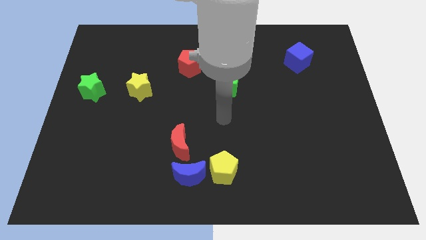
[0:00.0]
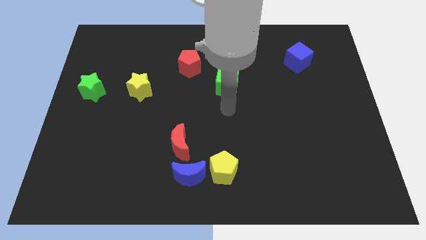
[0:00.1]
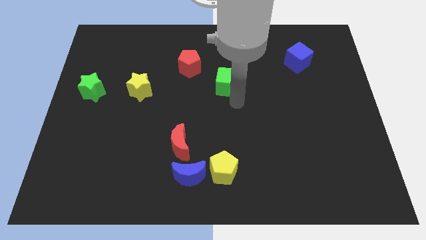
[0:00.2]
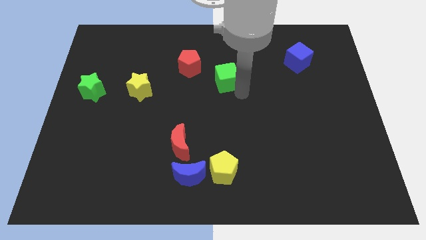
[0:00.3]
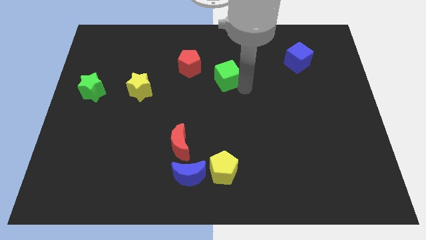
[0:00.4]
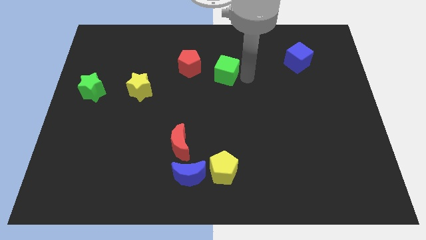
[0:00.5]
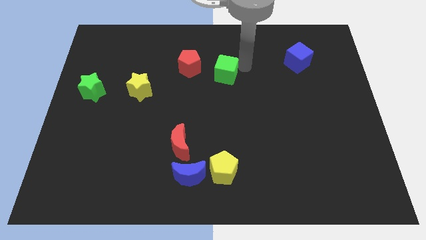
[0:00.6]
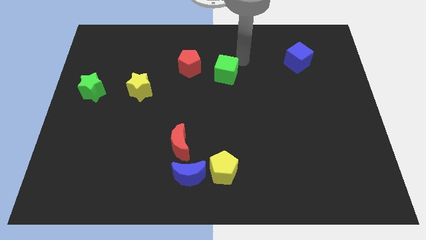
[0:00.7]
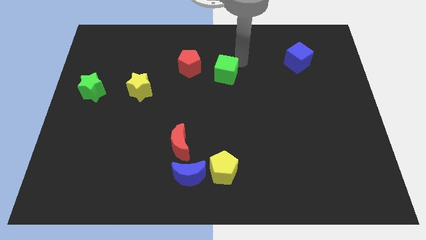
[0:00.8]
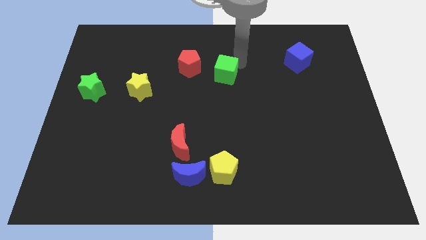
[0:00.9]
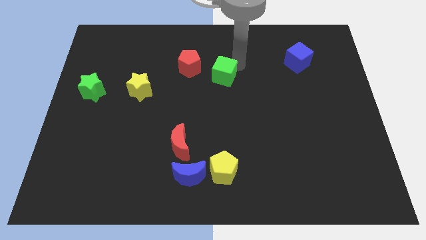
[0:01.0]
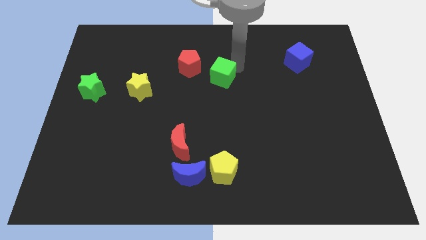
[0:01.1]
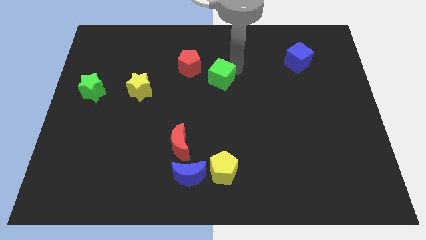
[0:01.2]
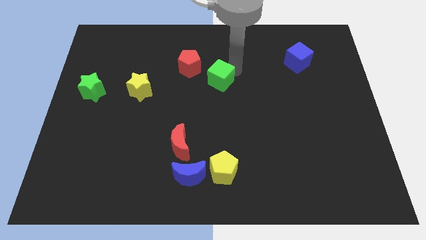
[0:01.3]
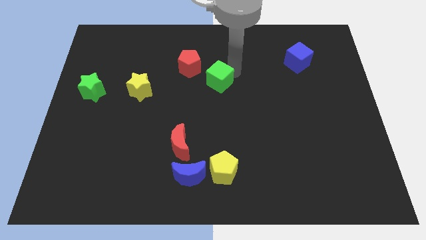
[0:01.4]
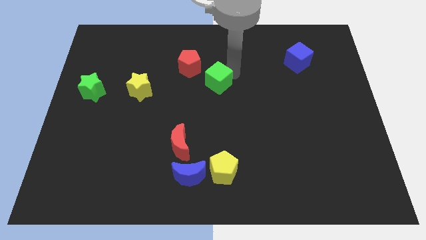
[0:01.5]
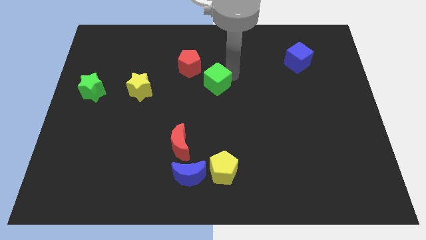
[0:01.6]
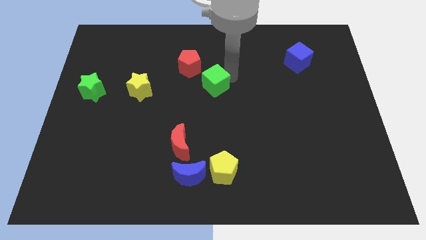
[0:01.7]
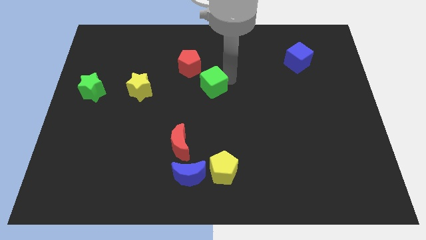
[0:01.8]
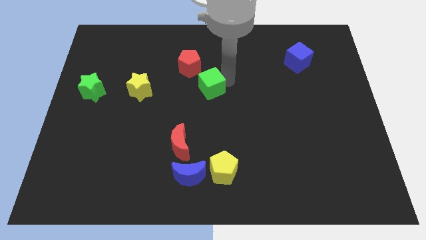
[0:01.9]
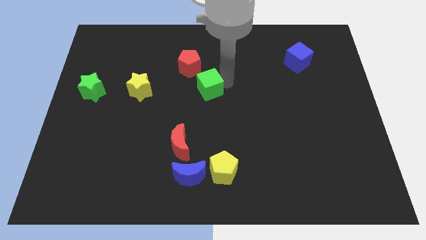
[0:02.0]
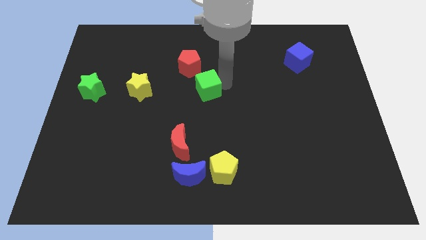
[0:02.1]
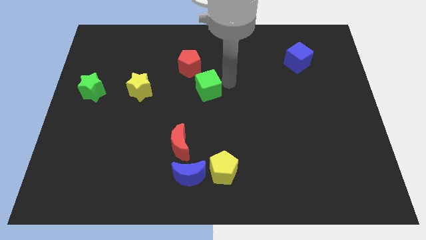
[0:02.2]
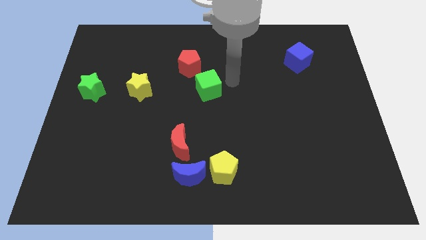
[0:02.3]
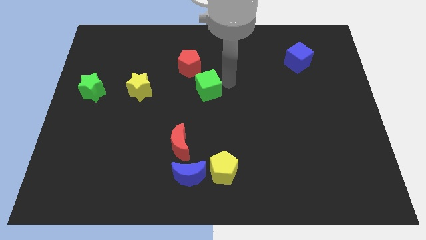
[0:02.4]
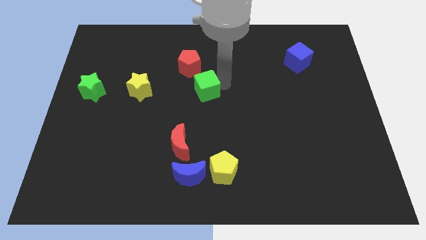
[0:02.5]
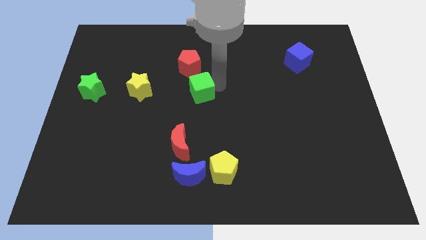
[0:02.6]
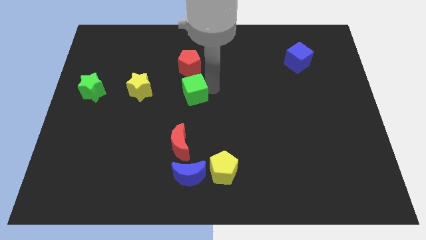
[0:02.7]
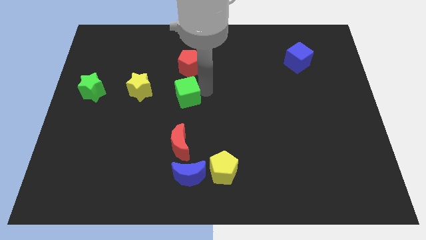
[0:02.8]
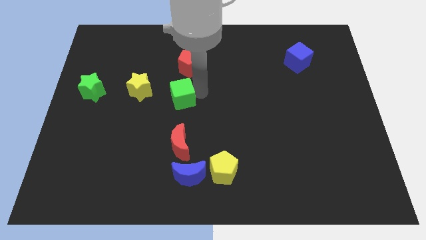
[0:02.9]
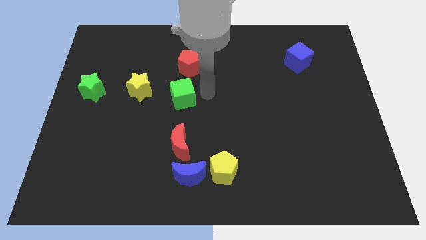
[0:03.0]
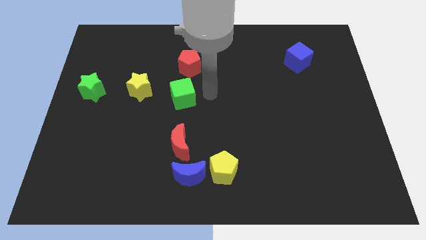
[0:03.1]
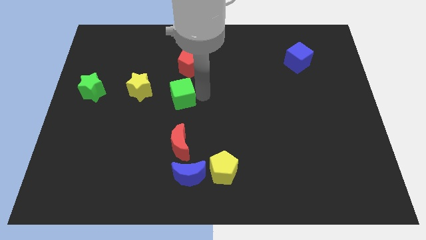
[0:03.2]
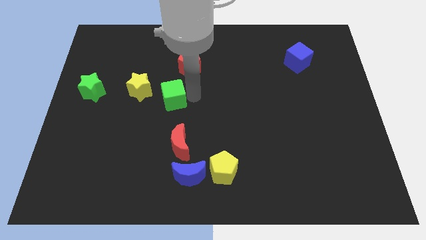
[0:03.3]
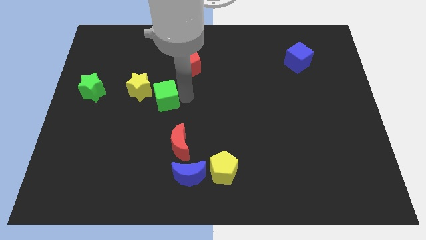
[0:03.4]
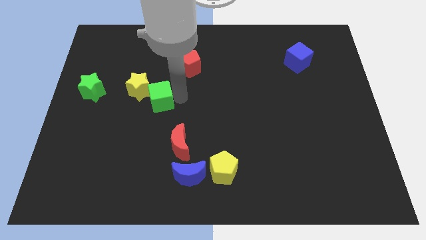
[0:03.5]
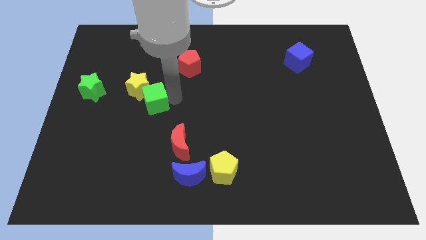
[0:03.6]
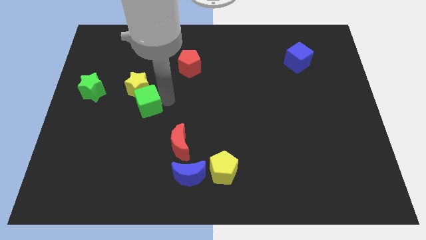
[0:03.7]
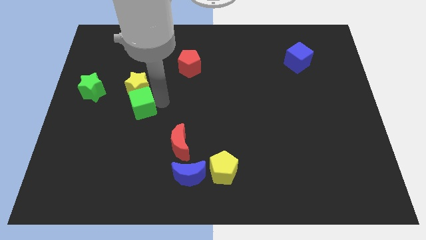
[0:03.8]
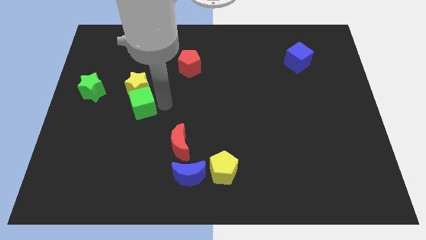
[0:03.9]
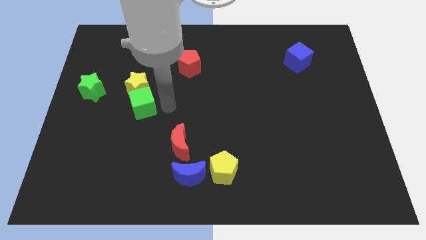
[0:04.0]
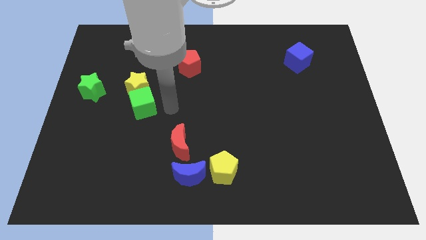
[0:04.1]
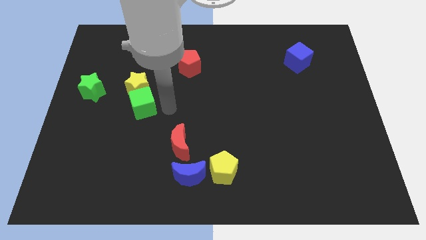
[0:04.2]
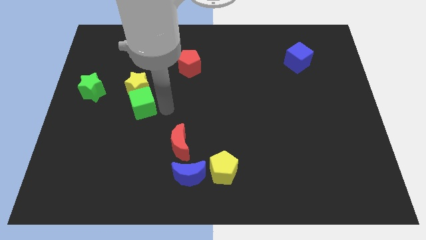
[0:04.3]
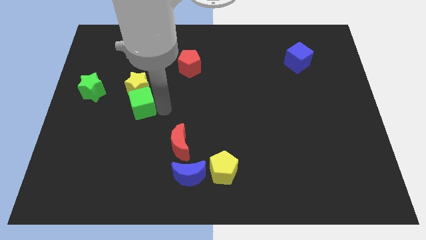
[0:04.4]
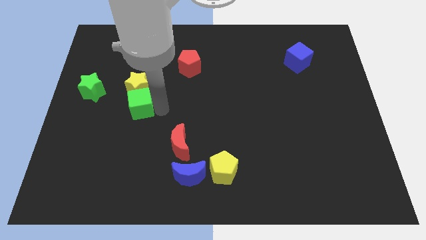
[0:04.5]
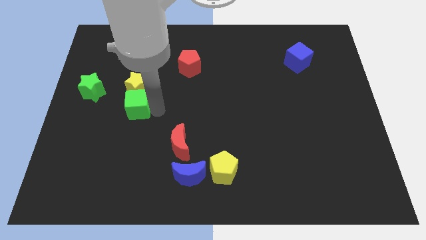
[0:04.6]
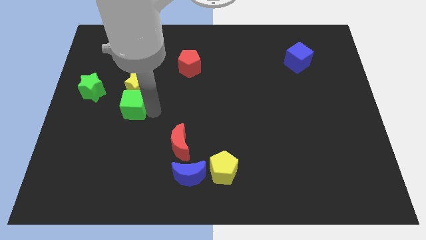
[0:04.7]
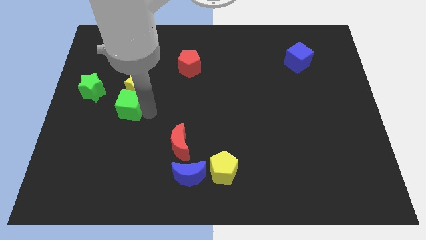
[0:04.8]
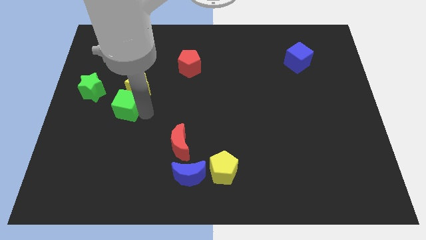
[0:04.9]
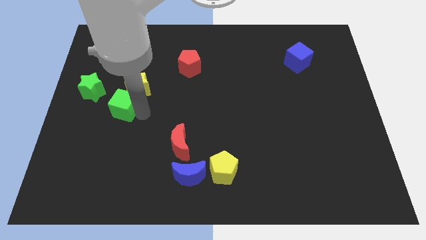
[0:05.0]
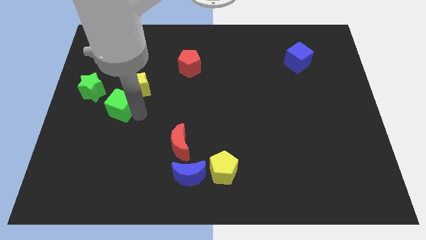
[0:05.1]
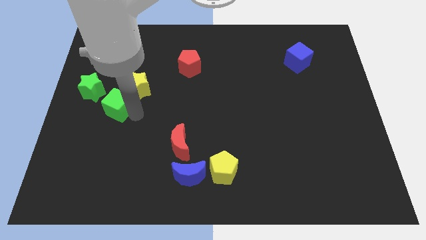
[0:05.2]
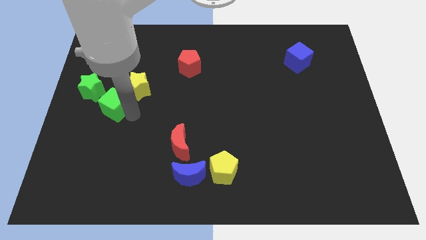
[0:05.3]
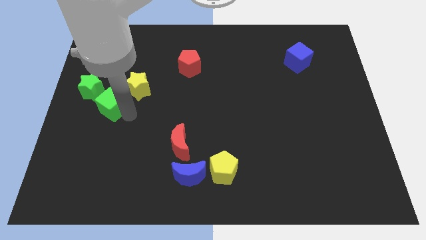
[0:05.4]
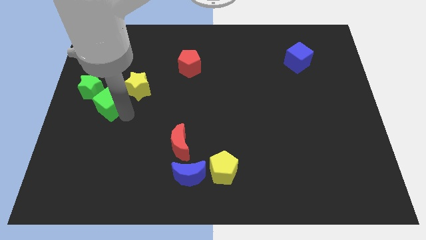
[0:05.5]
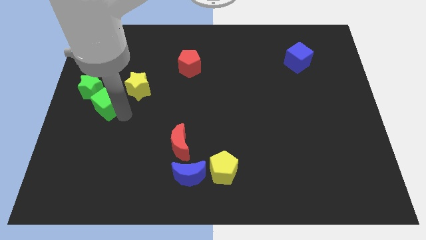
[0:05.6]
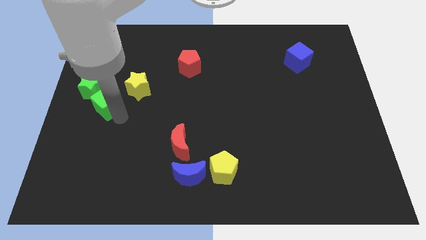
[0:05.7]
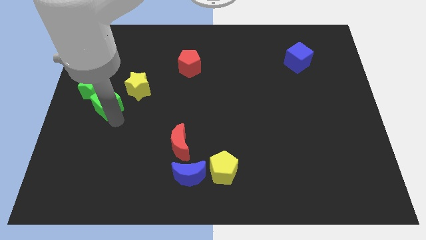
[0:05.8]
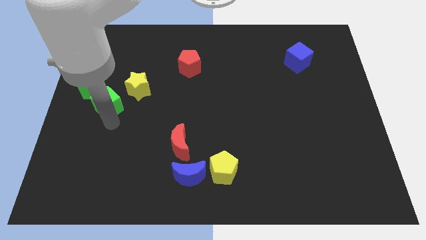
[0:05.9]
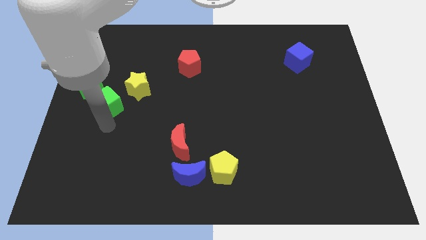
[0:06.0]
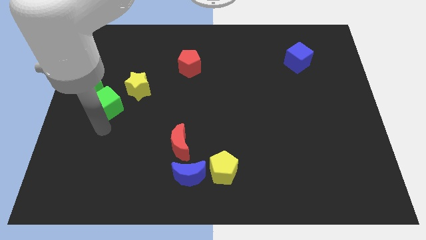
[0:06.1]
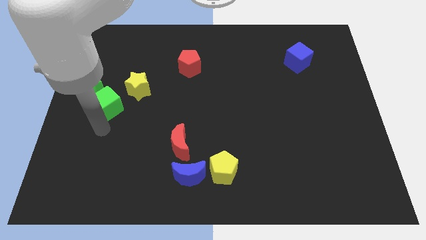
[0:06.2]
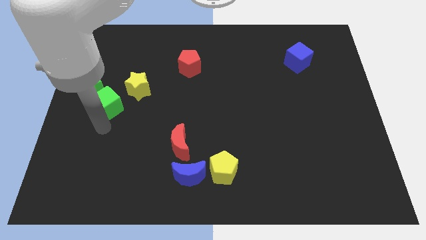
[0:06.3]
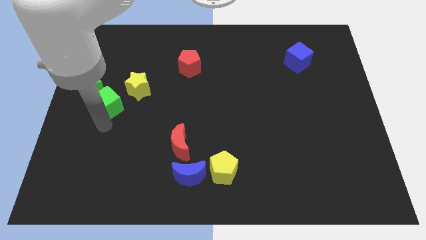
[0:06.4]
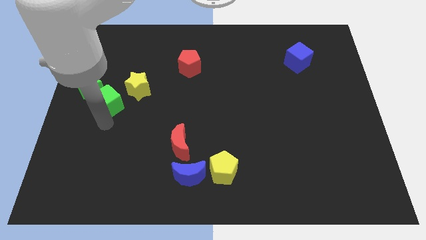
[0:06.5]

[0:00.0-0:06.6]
slide the green cube to the green star
